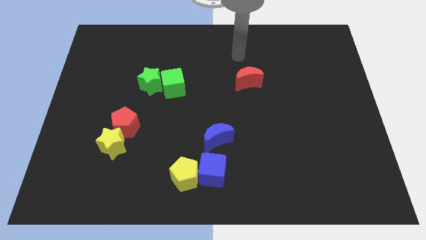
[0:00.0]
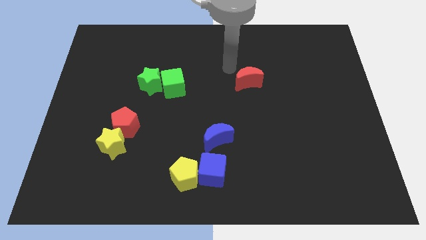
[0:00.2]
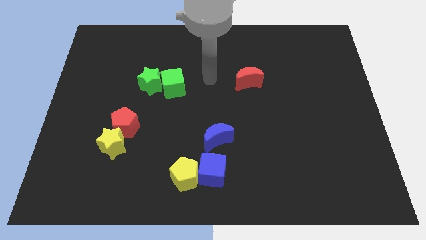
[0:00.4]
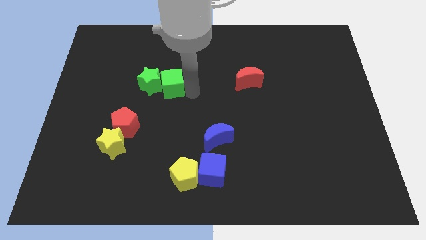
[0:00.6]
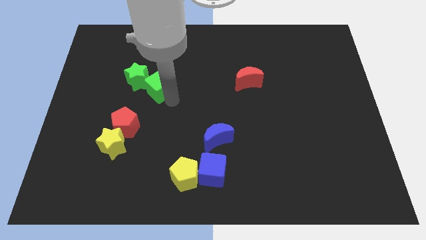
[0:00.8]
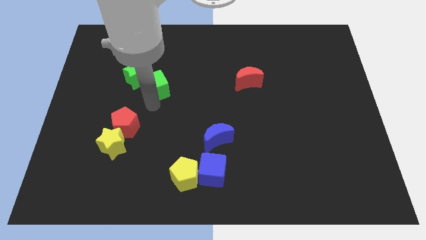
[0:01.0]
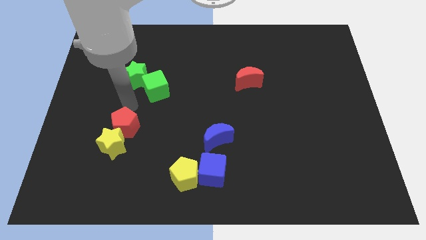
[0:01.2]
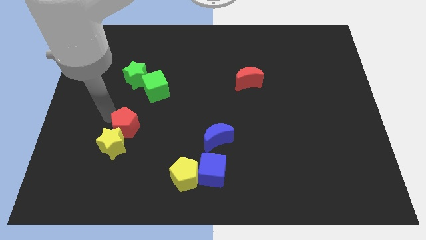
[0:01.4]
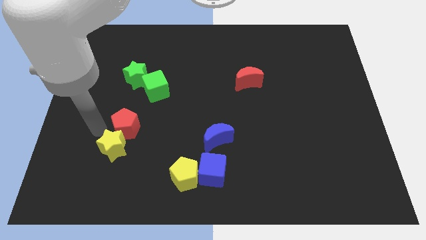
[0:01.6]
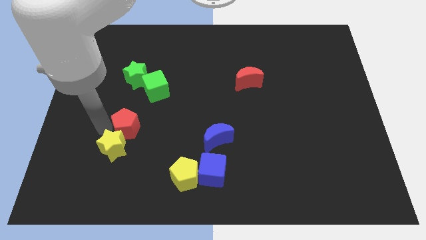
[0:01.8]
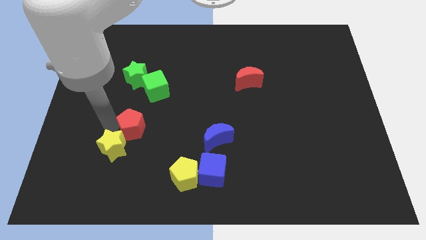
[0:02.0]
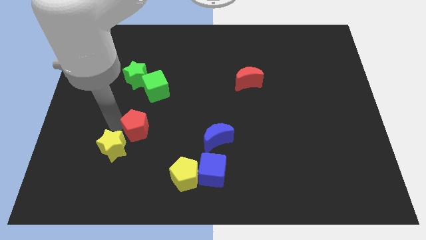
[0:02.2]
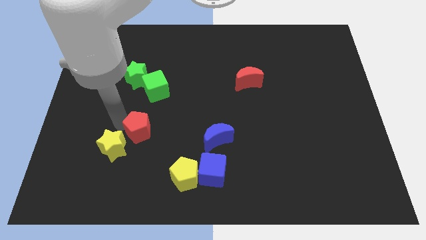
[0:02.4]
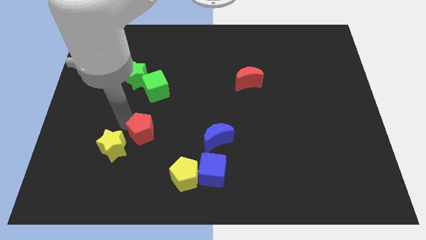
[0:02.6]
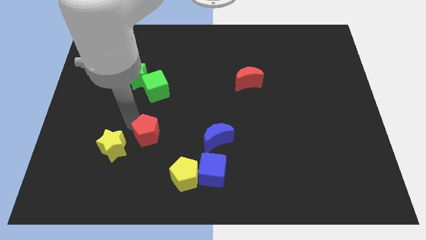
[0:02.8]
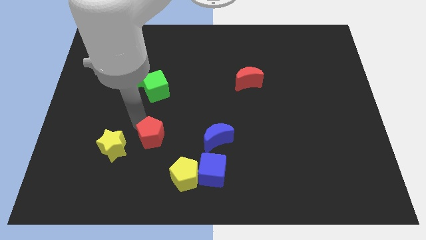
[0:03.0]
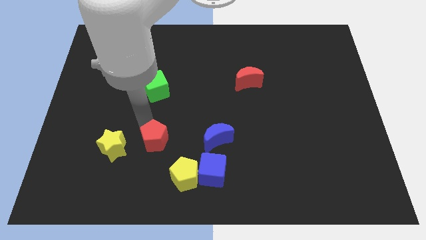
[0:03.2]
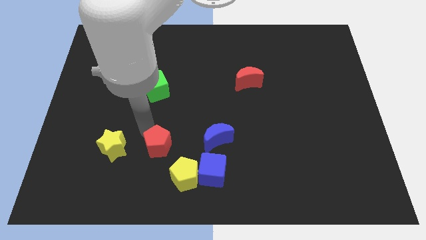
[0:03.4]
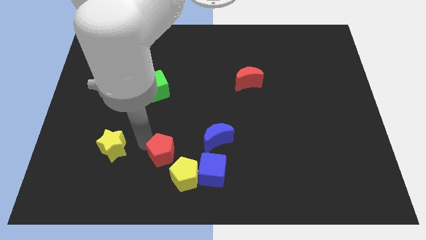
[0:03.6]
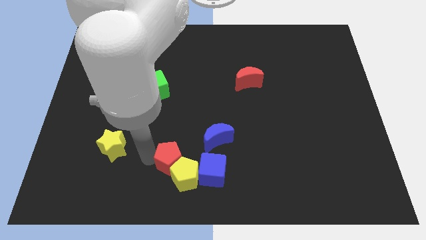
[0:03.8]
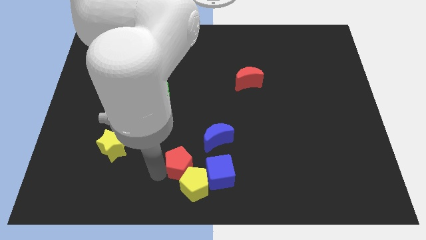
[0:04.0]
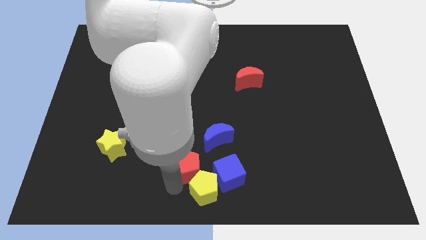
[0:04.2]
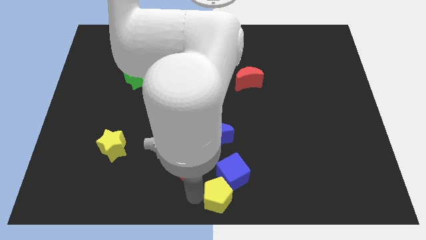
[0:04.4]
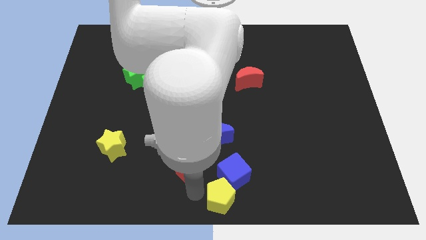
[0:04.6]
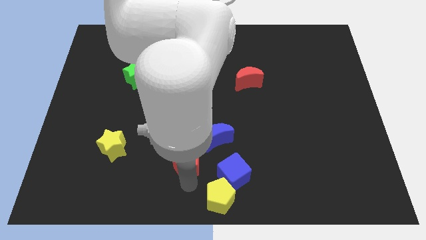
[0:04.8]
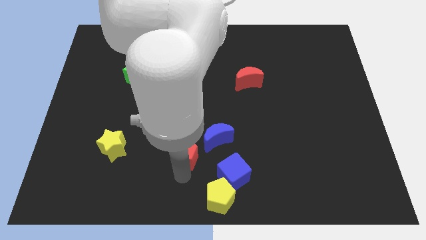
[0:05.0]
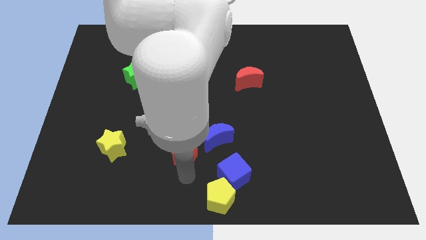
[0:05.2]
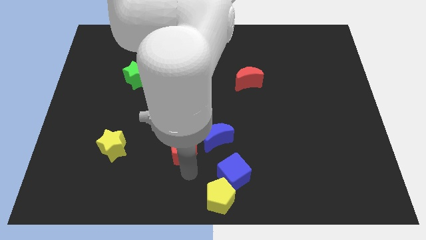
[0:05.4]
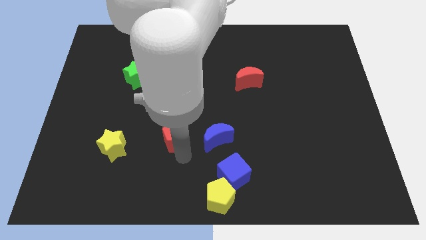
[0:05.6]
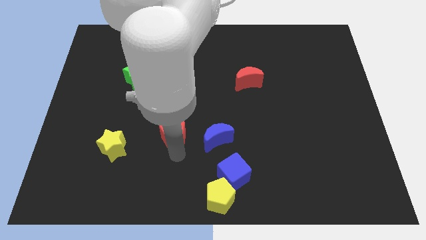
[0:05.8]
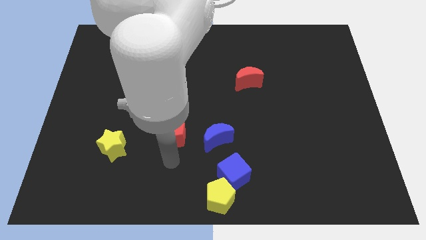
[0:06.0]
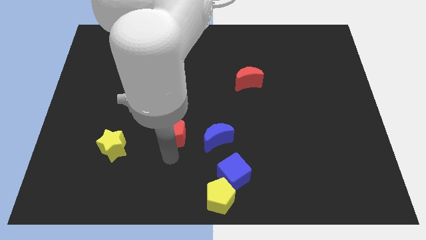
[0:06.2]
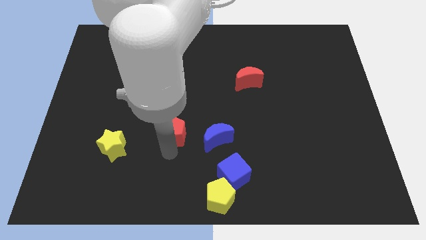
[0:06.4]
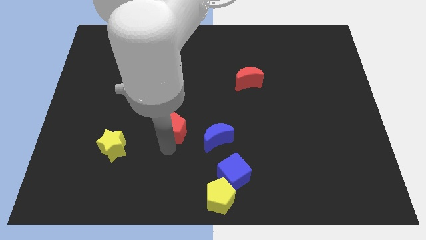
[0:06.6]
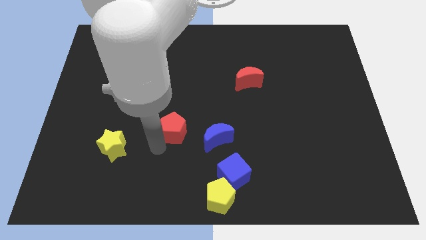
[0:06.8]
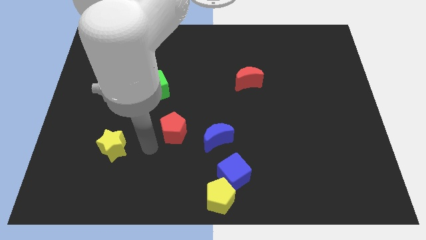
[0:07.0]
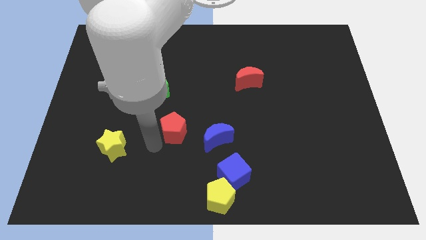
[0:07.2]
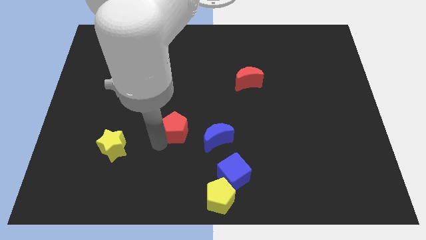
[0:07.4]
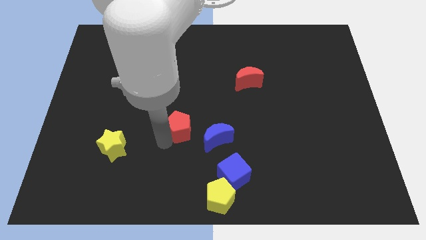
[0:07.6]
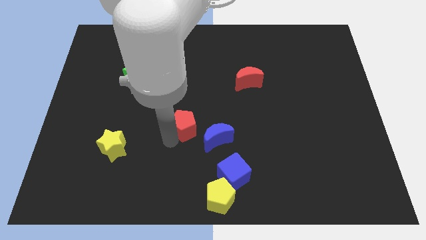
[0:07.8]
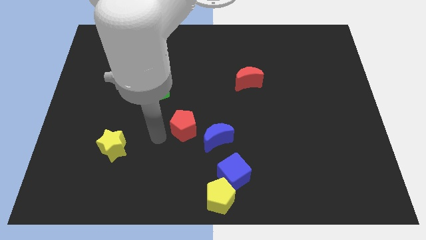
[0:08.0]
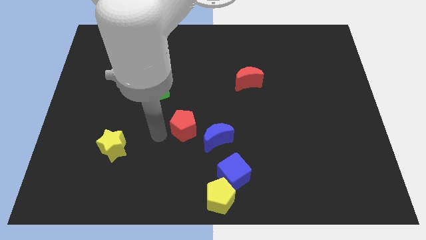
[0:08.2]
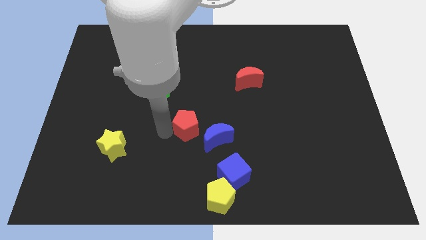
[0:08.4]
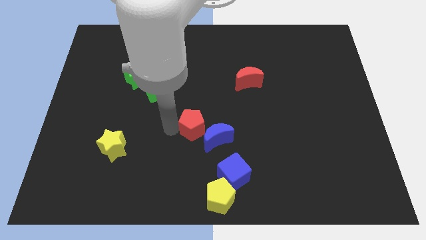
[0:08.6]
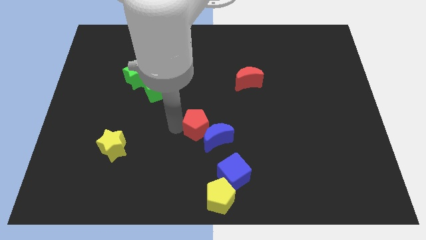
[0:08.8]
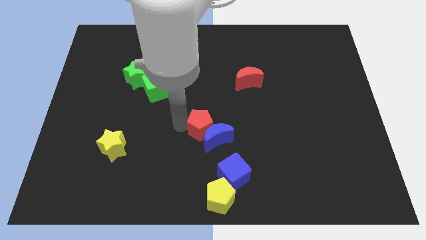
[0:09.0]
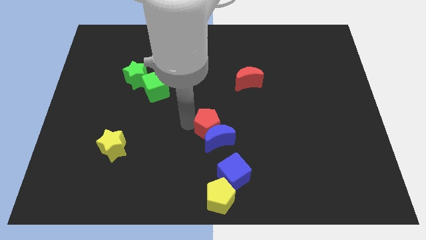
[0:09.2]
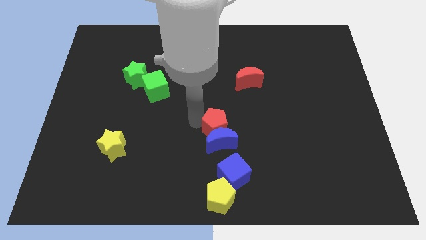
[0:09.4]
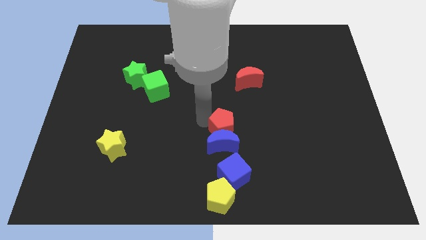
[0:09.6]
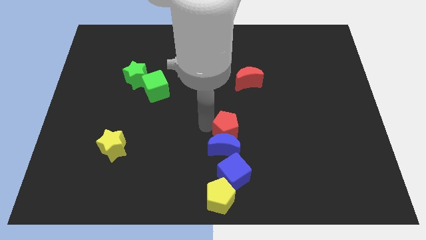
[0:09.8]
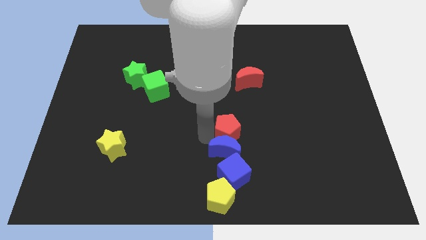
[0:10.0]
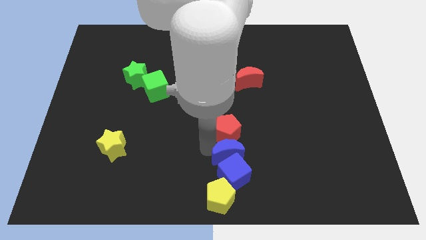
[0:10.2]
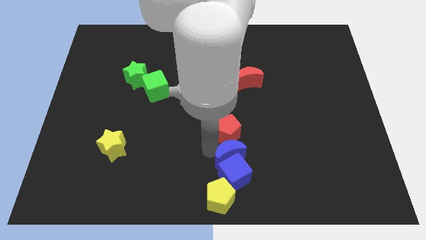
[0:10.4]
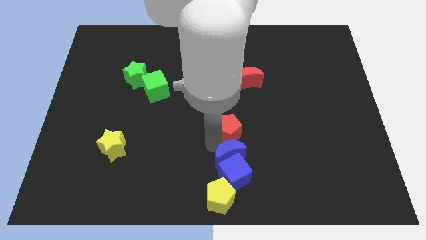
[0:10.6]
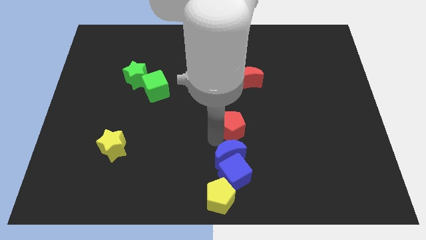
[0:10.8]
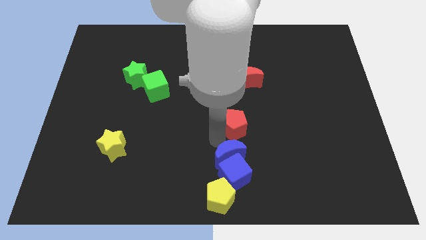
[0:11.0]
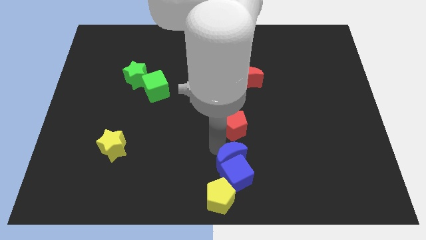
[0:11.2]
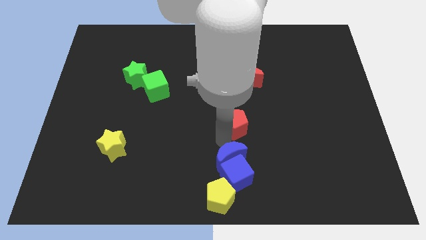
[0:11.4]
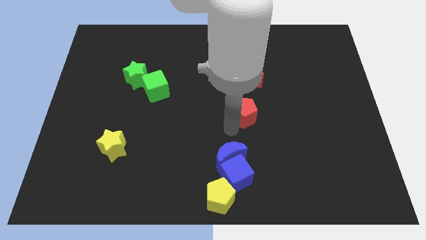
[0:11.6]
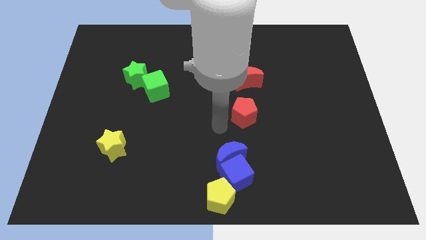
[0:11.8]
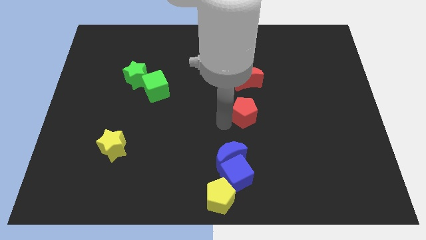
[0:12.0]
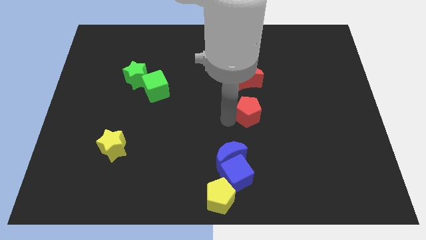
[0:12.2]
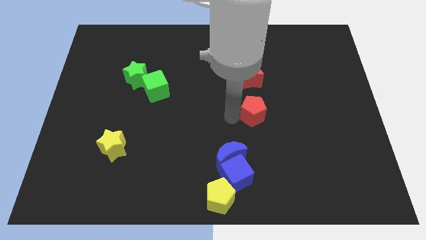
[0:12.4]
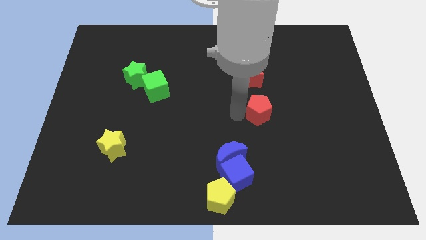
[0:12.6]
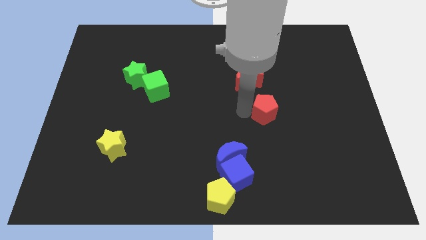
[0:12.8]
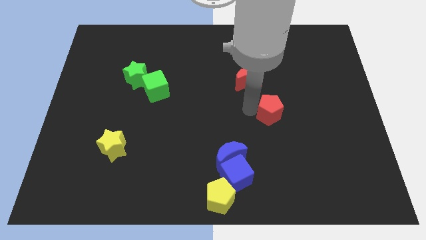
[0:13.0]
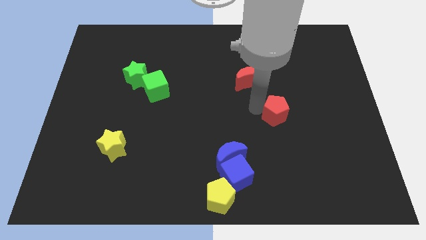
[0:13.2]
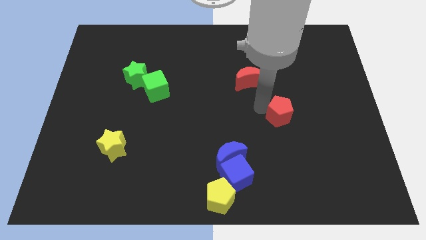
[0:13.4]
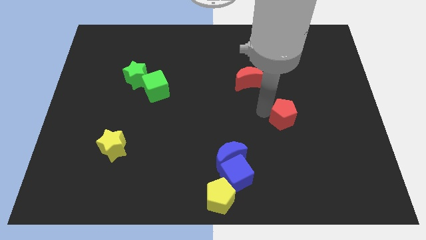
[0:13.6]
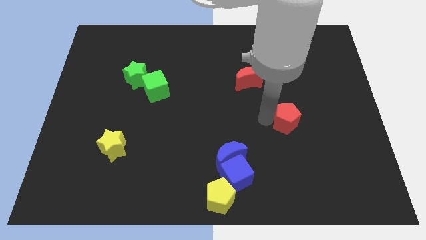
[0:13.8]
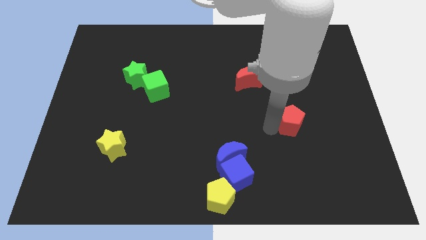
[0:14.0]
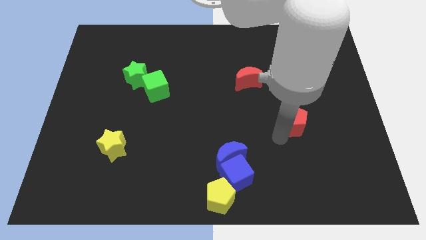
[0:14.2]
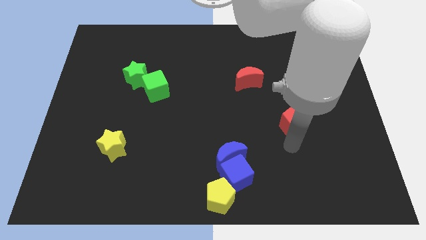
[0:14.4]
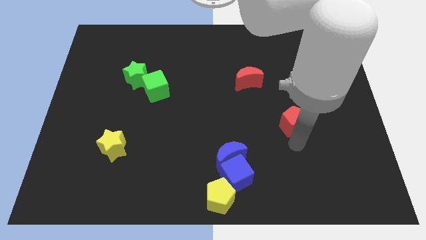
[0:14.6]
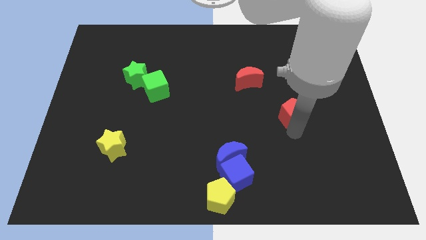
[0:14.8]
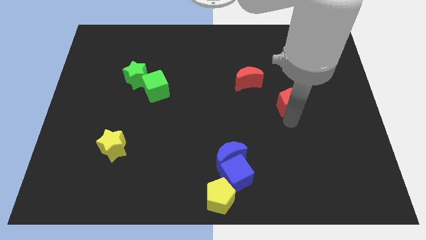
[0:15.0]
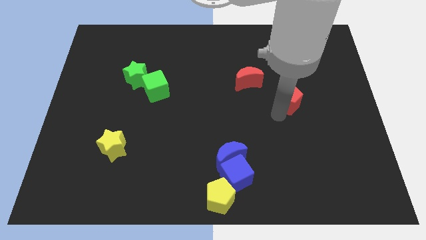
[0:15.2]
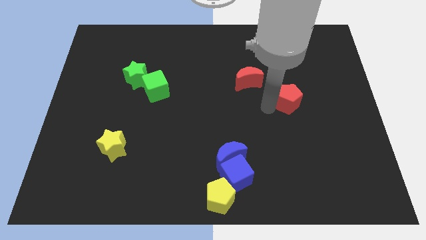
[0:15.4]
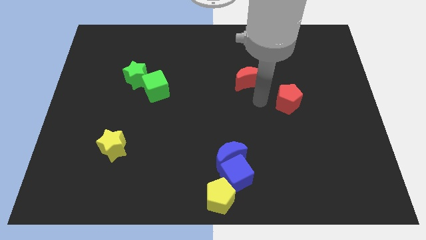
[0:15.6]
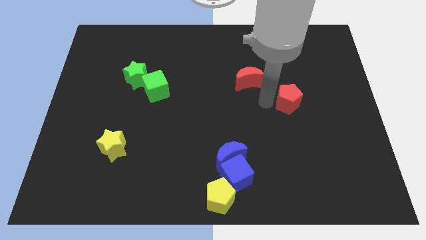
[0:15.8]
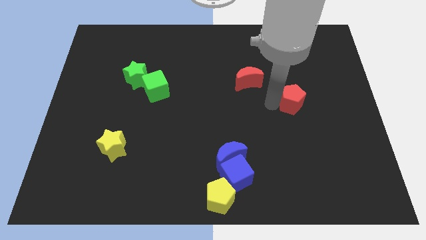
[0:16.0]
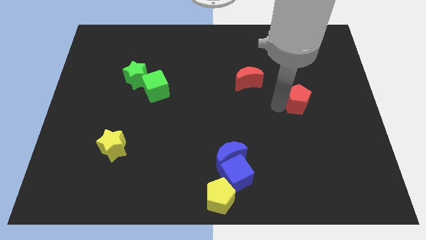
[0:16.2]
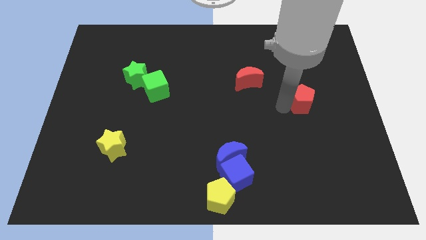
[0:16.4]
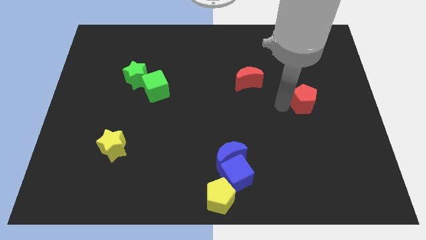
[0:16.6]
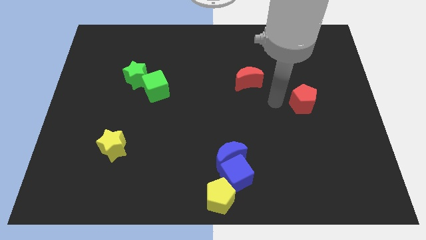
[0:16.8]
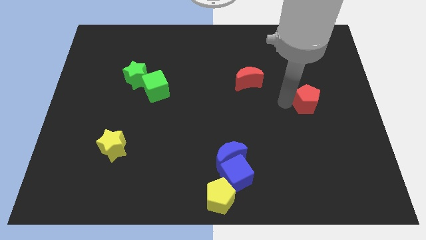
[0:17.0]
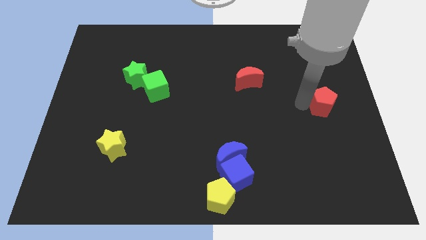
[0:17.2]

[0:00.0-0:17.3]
move the red pentagon to the center right
